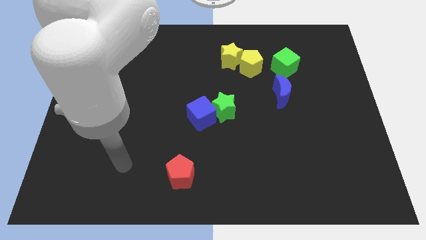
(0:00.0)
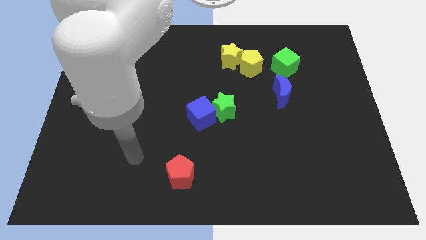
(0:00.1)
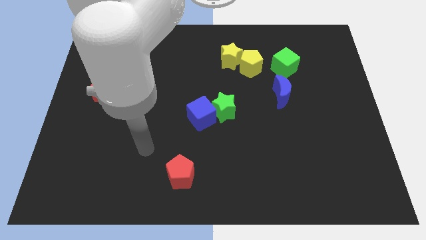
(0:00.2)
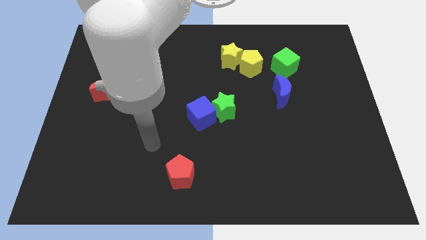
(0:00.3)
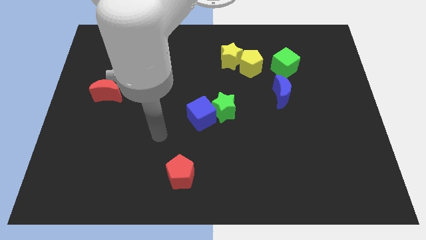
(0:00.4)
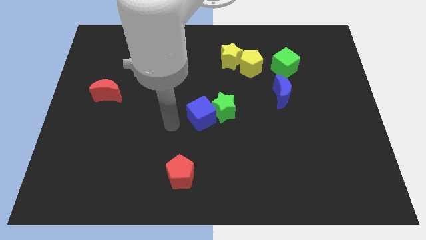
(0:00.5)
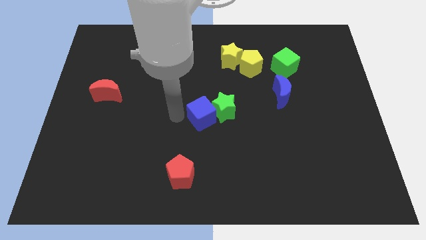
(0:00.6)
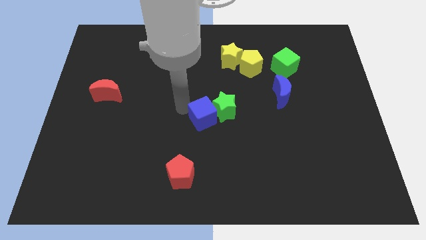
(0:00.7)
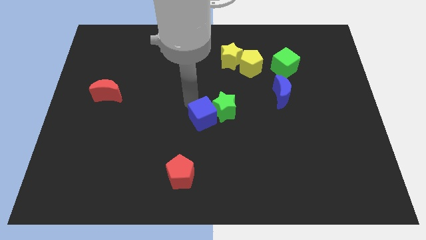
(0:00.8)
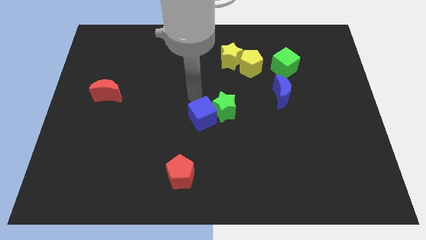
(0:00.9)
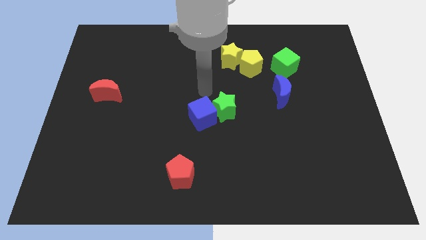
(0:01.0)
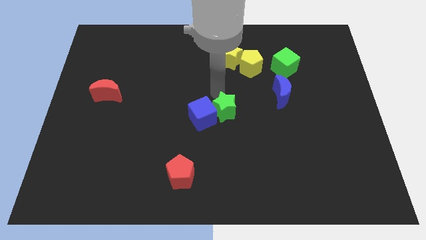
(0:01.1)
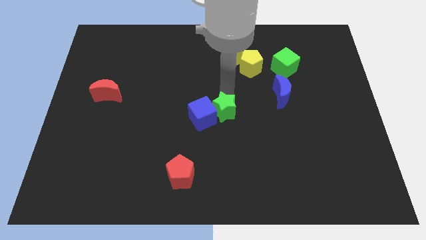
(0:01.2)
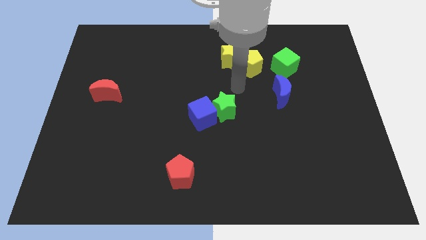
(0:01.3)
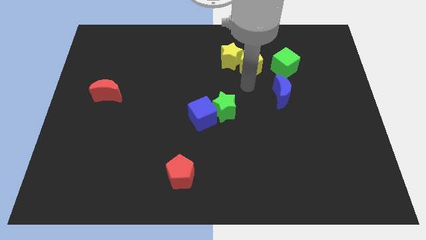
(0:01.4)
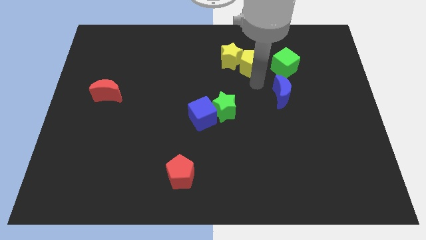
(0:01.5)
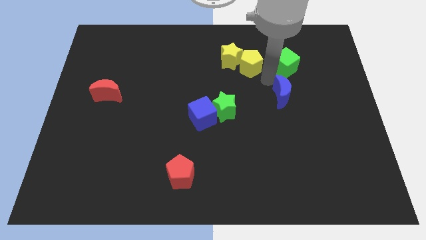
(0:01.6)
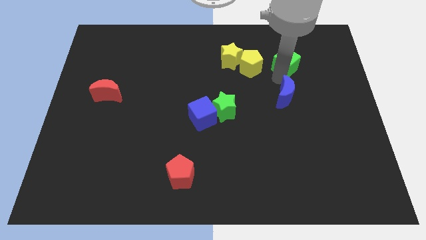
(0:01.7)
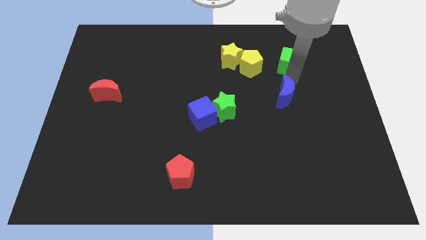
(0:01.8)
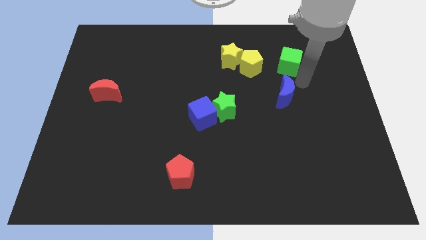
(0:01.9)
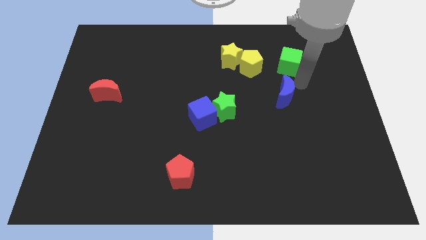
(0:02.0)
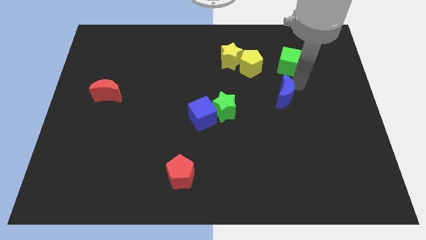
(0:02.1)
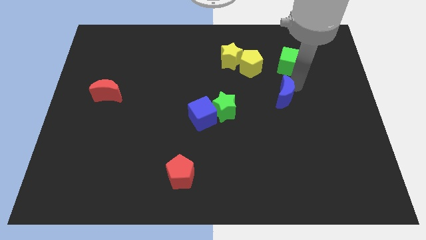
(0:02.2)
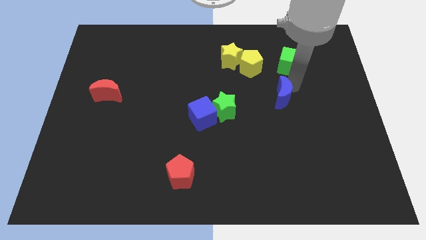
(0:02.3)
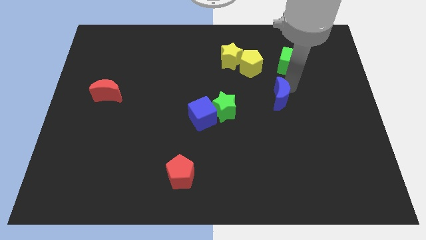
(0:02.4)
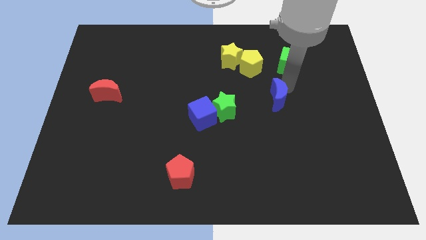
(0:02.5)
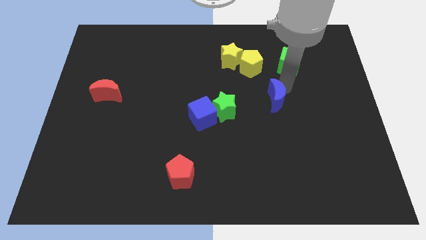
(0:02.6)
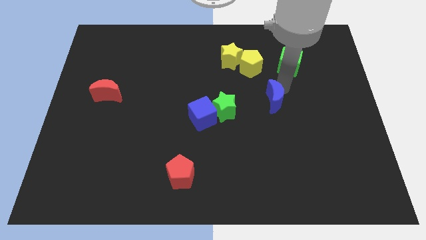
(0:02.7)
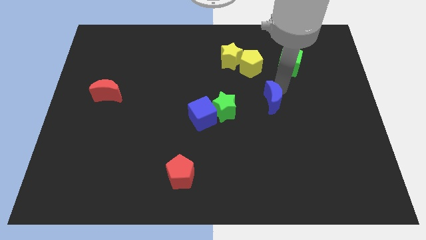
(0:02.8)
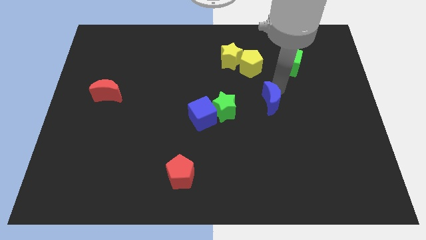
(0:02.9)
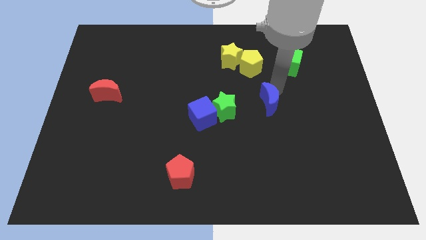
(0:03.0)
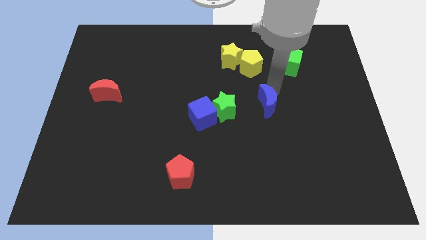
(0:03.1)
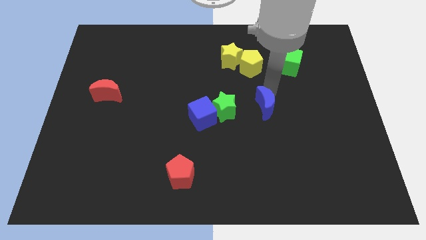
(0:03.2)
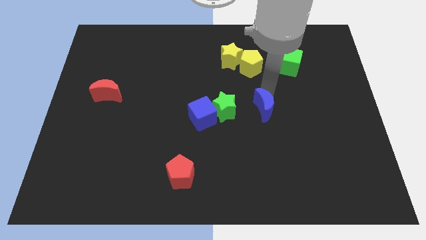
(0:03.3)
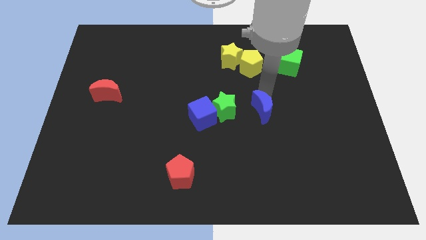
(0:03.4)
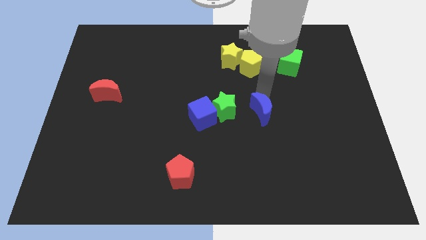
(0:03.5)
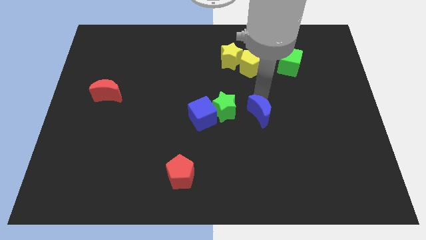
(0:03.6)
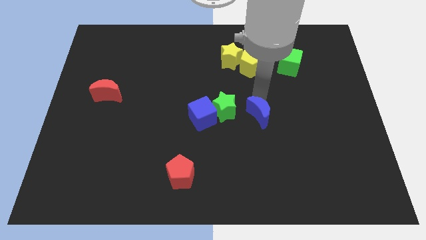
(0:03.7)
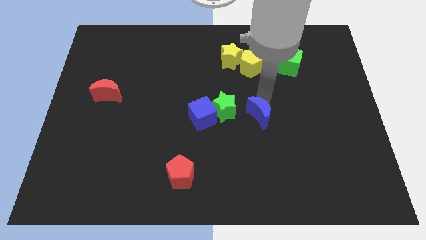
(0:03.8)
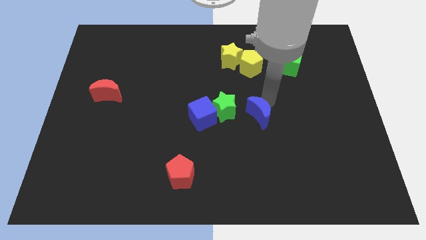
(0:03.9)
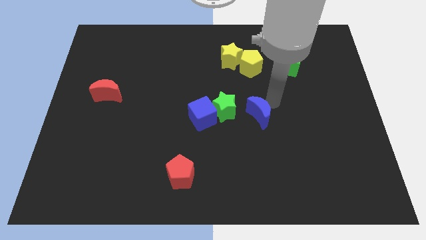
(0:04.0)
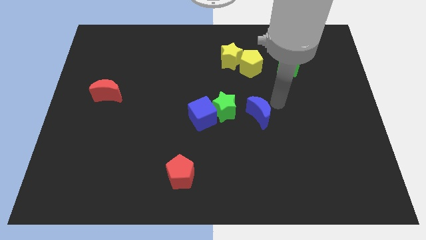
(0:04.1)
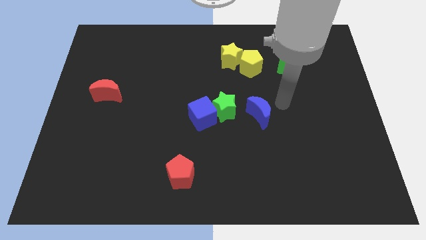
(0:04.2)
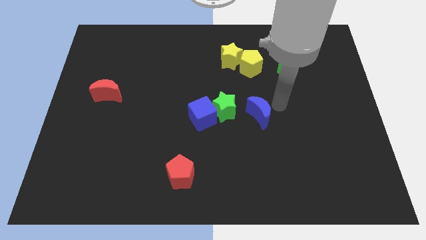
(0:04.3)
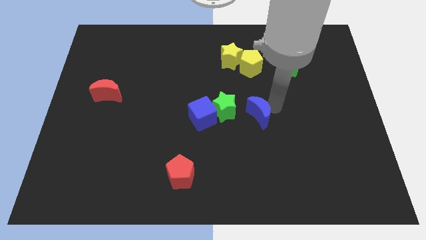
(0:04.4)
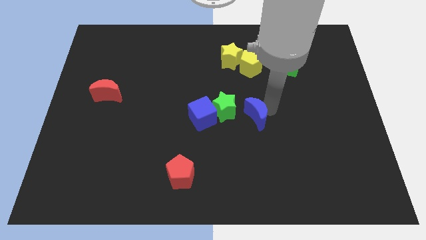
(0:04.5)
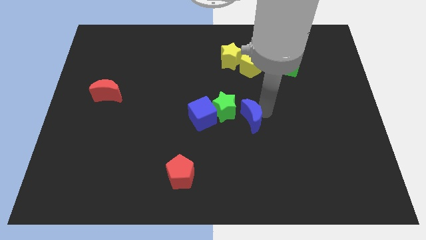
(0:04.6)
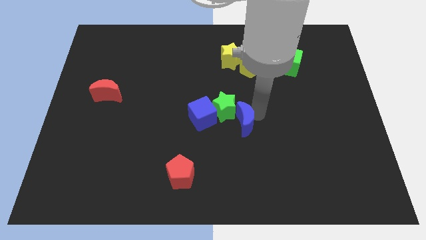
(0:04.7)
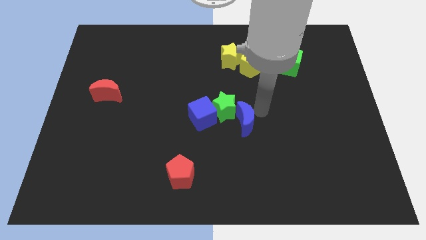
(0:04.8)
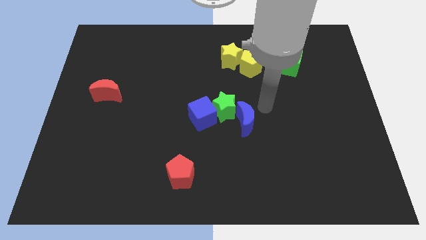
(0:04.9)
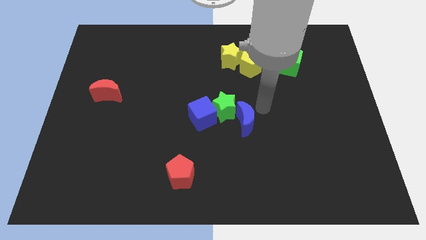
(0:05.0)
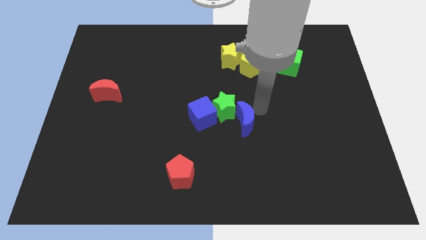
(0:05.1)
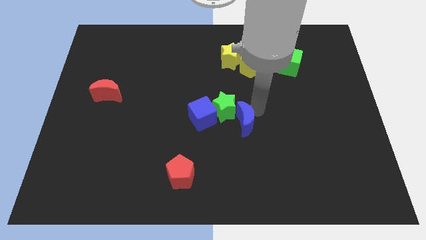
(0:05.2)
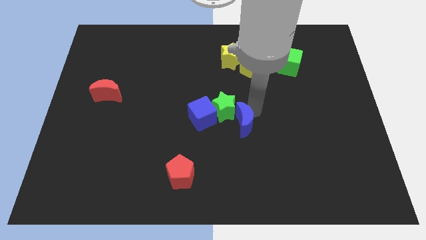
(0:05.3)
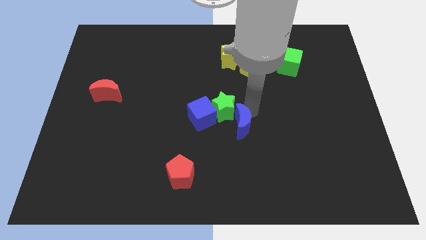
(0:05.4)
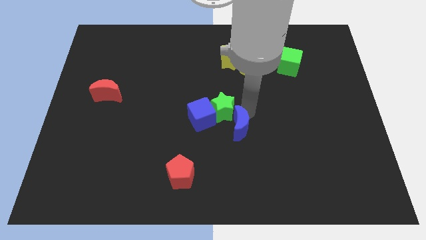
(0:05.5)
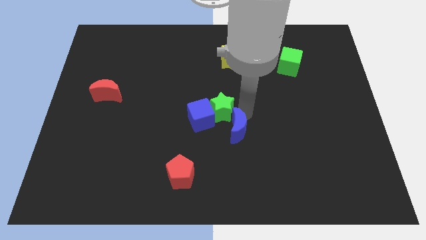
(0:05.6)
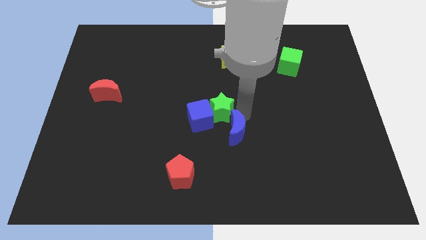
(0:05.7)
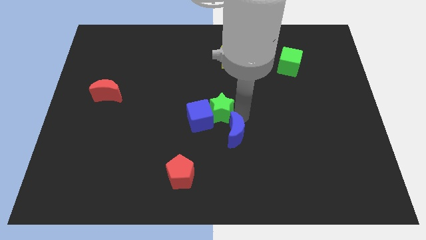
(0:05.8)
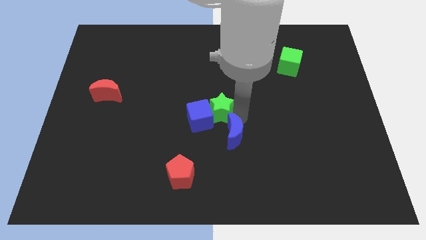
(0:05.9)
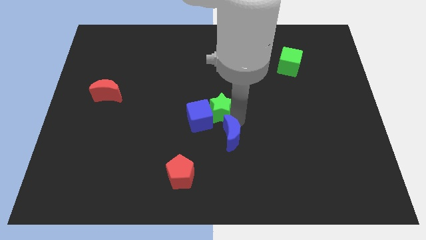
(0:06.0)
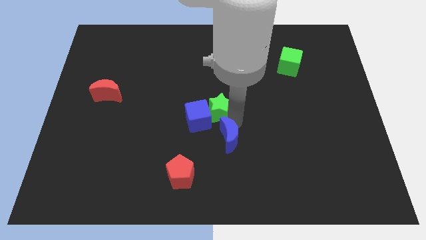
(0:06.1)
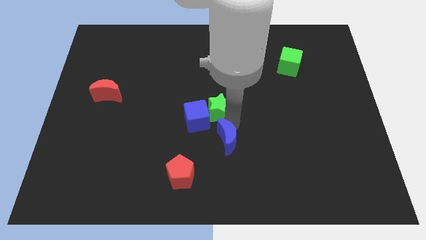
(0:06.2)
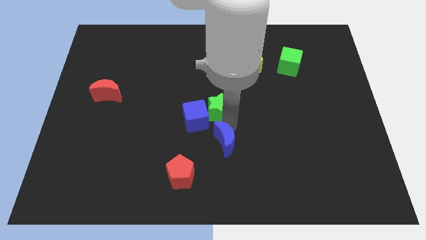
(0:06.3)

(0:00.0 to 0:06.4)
put the blue moon diagonally up and to the right of the red pentagon

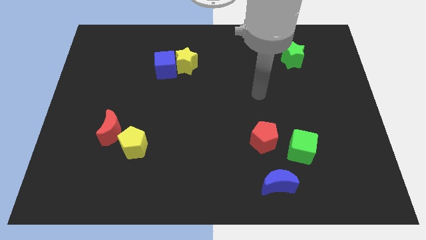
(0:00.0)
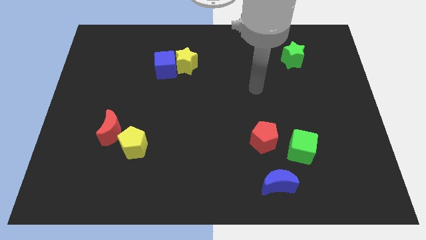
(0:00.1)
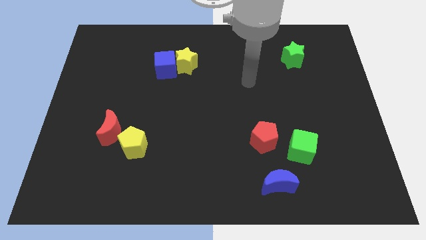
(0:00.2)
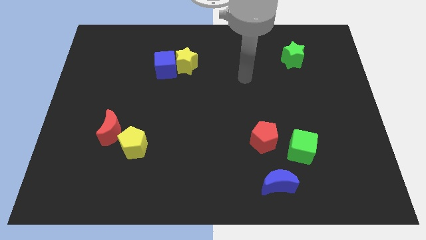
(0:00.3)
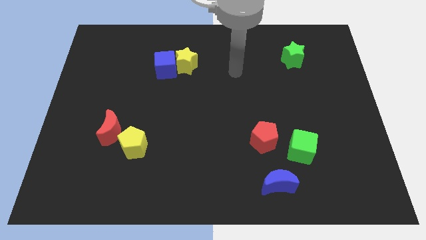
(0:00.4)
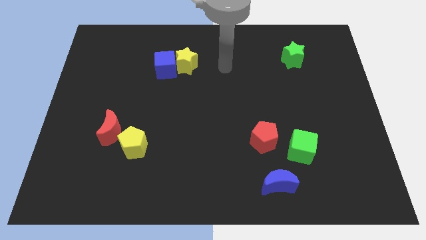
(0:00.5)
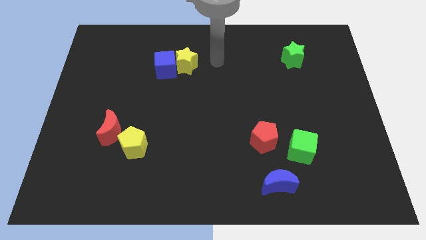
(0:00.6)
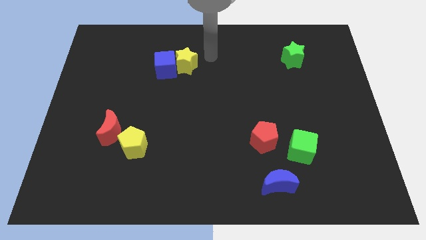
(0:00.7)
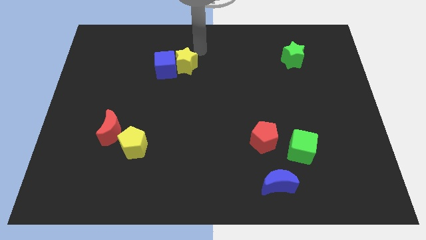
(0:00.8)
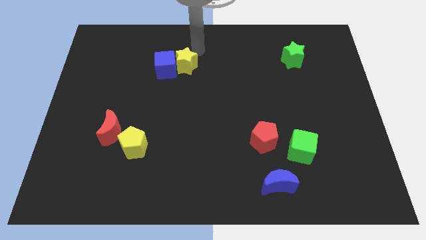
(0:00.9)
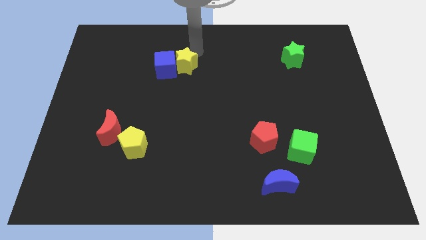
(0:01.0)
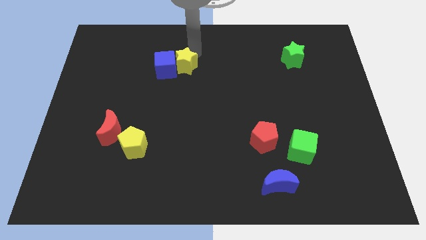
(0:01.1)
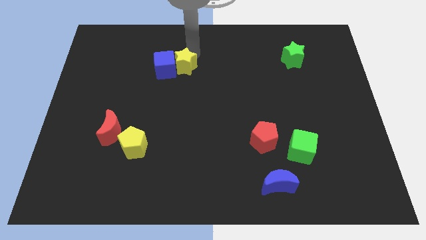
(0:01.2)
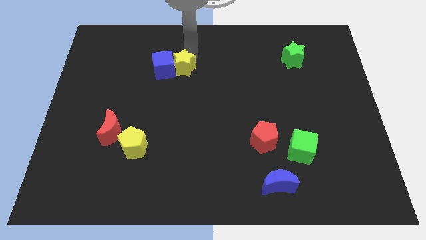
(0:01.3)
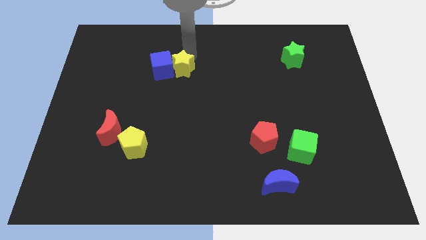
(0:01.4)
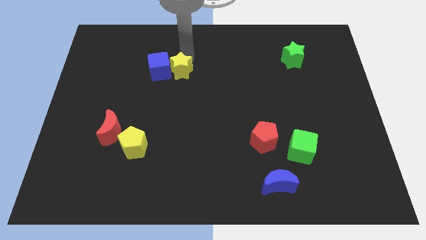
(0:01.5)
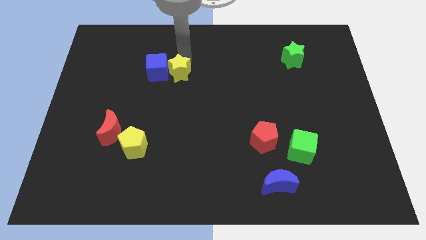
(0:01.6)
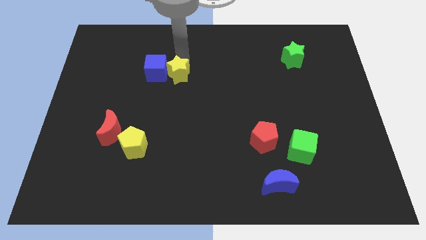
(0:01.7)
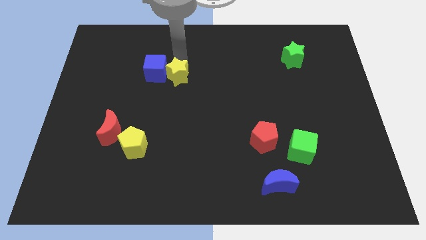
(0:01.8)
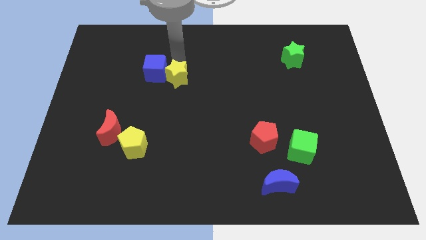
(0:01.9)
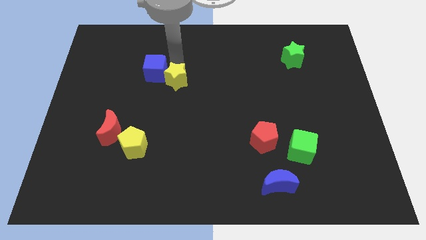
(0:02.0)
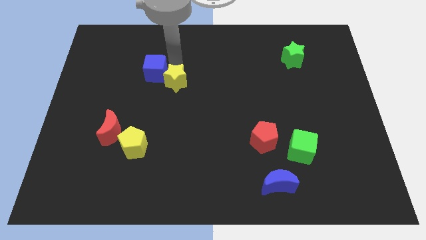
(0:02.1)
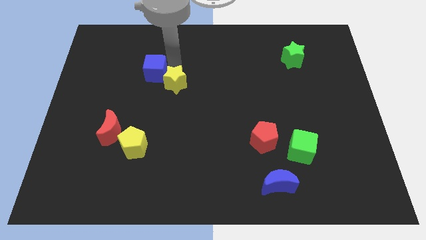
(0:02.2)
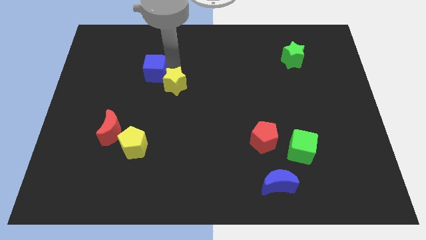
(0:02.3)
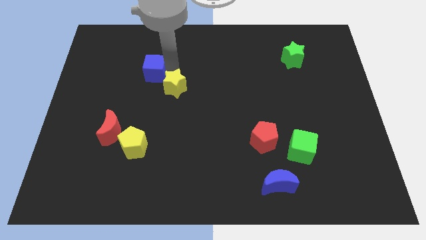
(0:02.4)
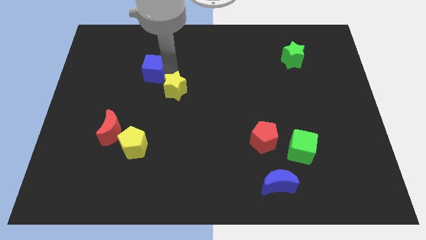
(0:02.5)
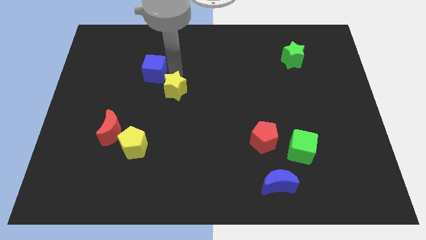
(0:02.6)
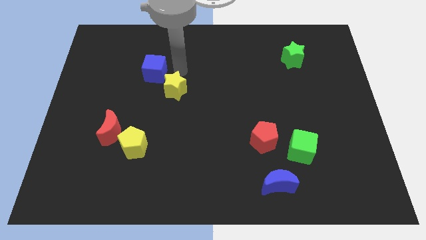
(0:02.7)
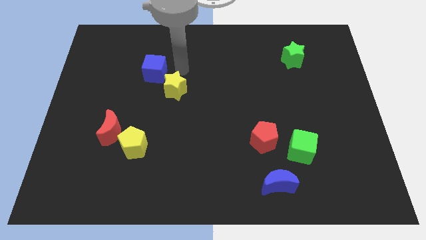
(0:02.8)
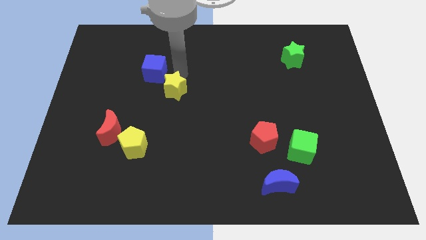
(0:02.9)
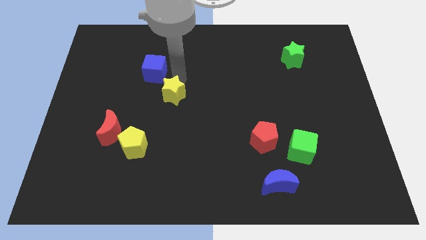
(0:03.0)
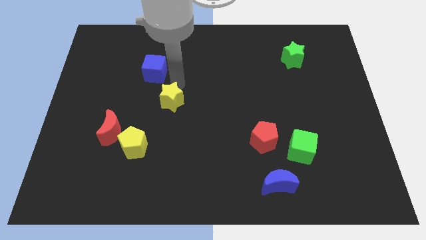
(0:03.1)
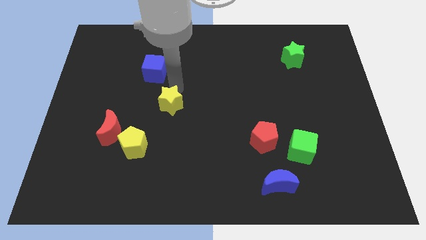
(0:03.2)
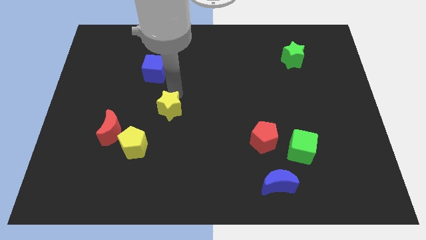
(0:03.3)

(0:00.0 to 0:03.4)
put the yellow star diagonally up and to the right of the yellow pentagon
